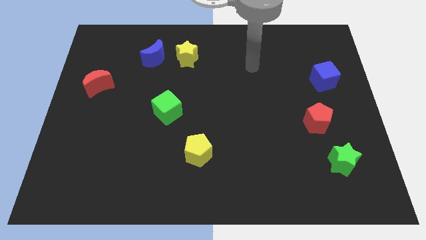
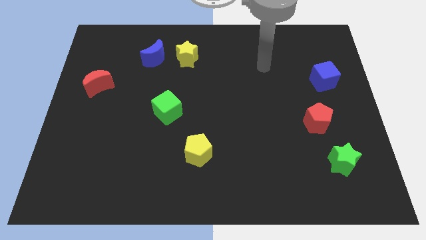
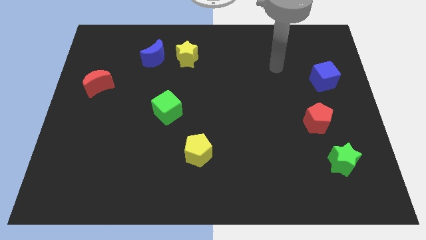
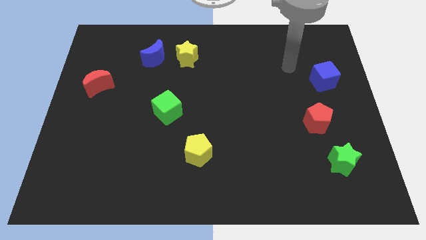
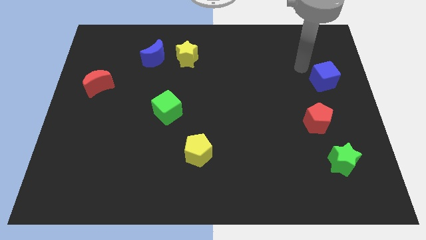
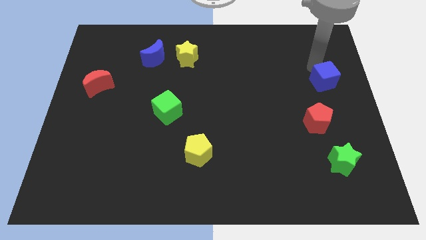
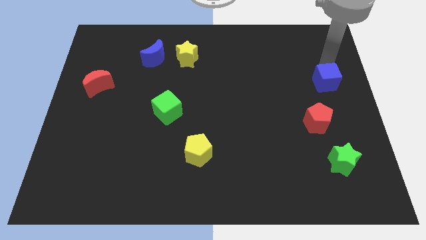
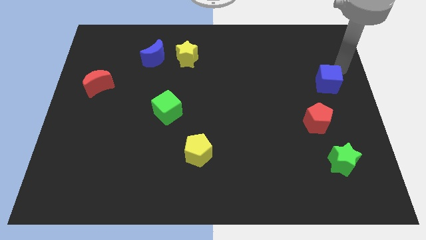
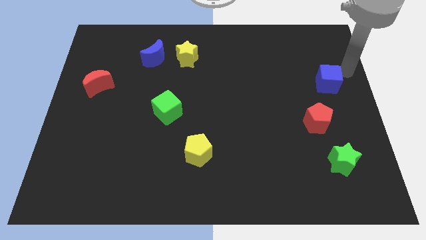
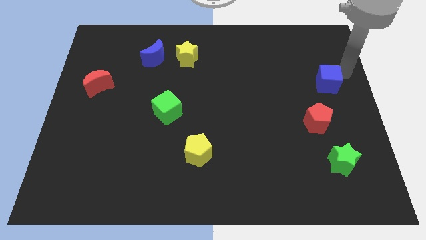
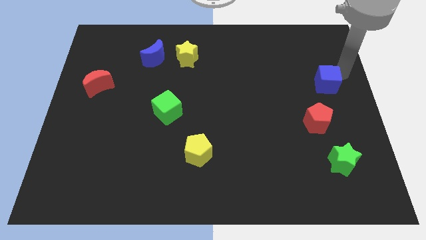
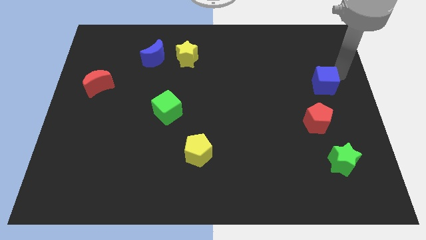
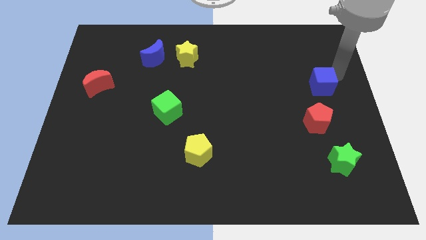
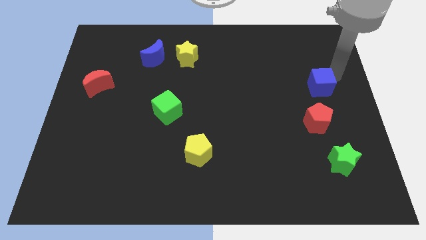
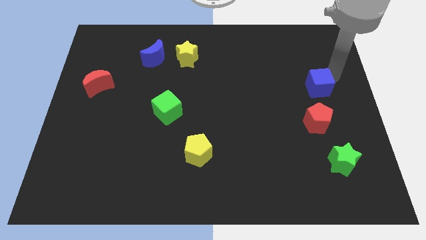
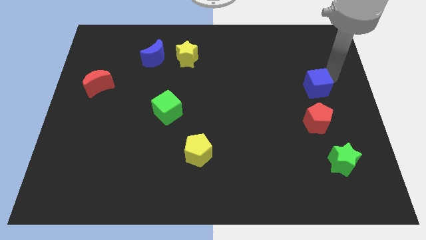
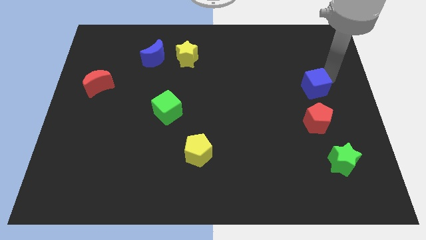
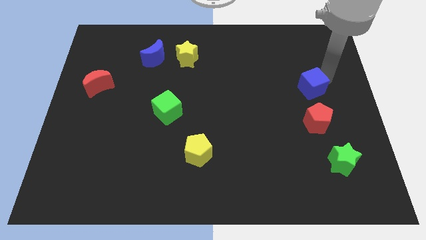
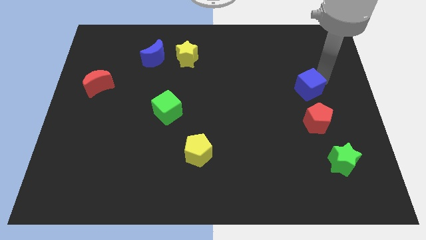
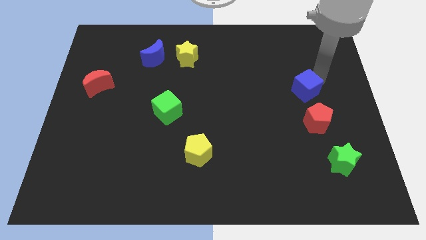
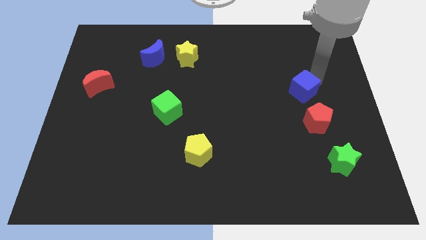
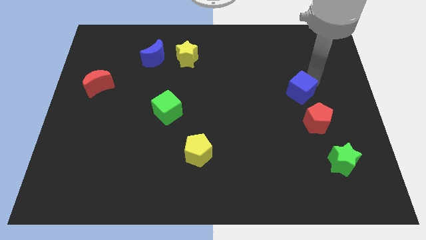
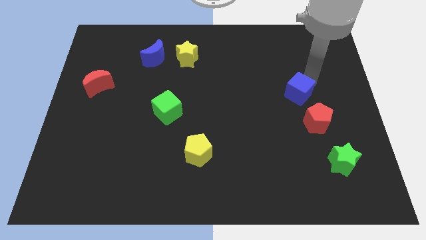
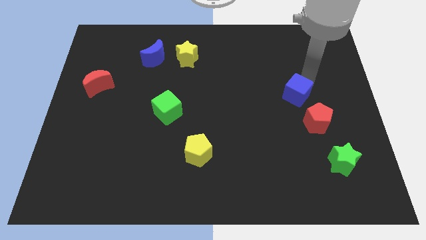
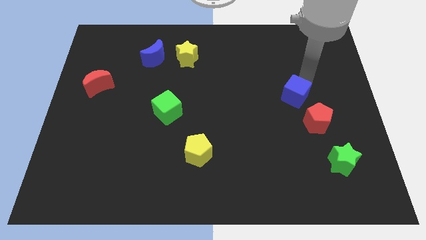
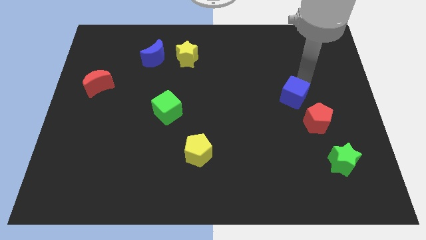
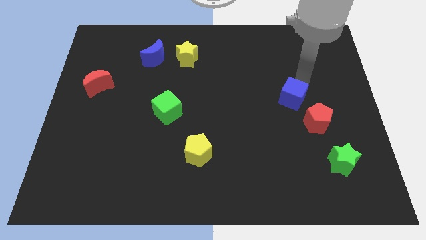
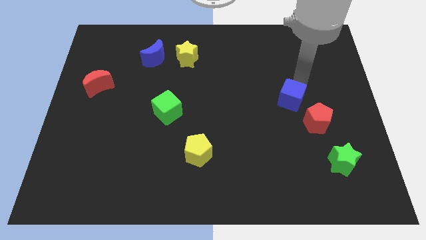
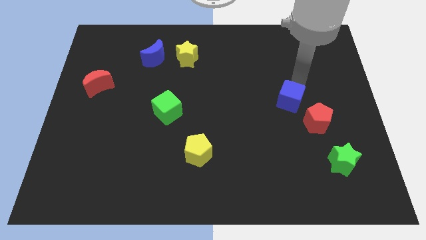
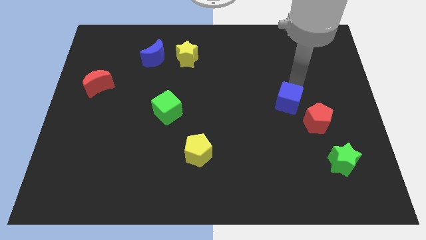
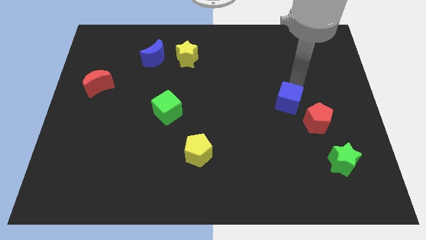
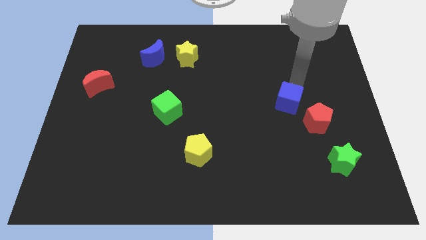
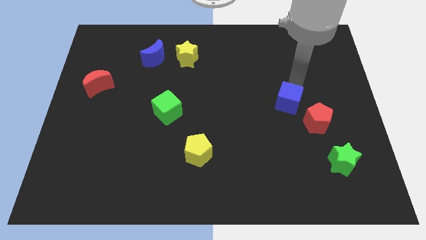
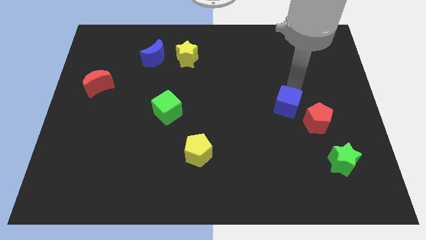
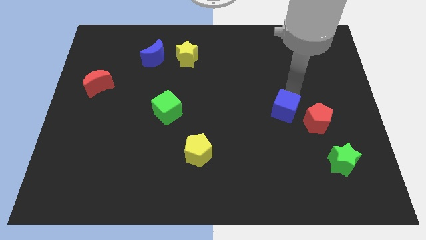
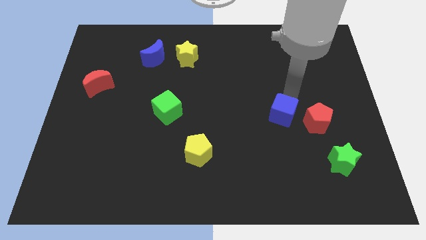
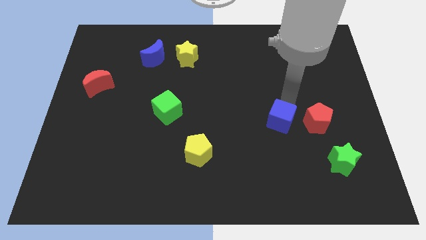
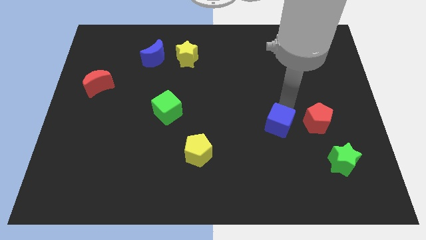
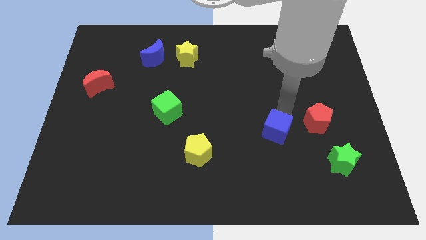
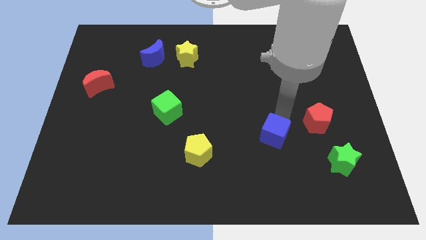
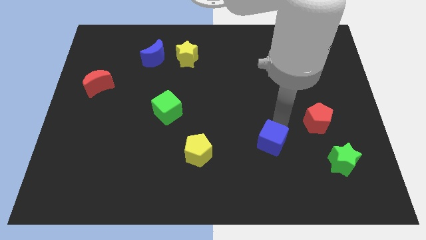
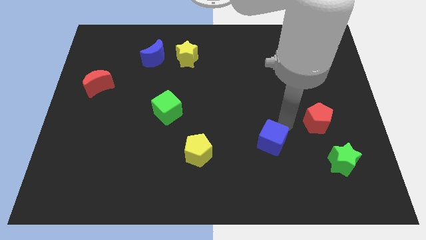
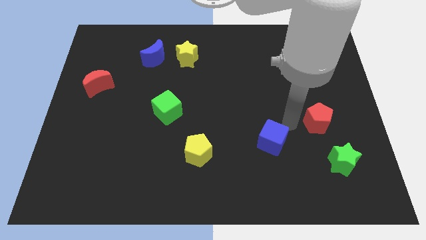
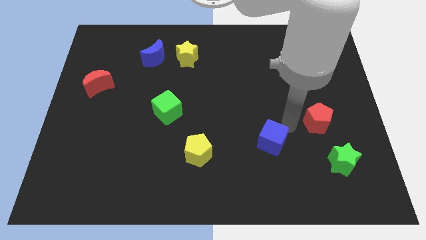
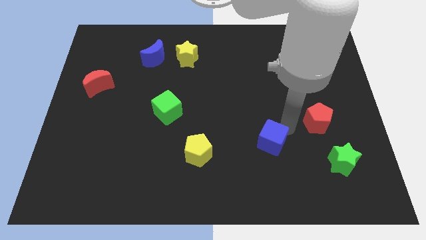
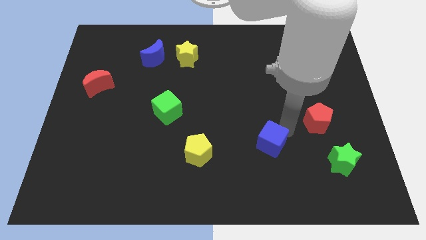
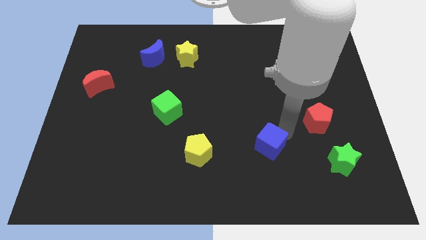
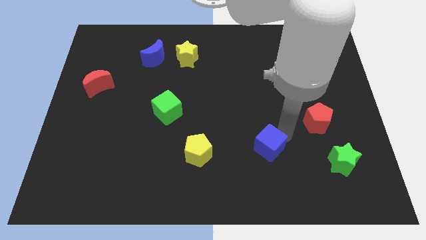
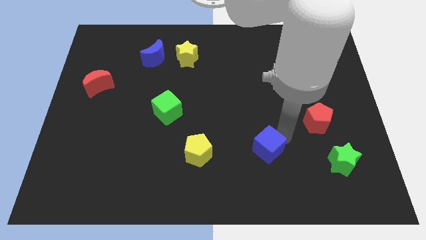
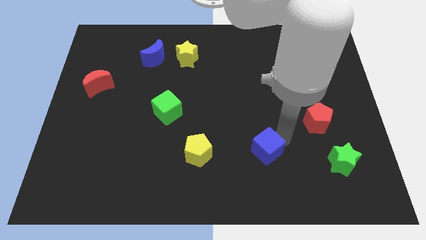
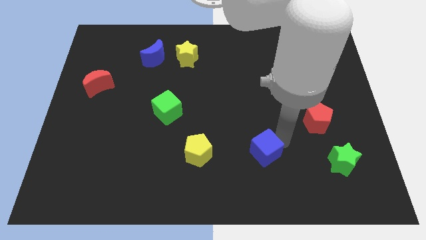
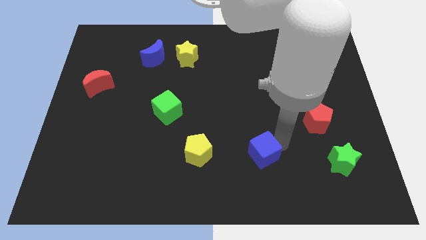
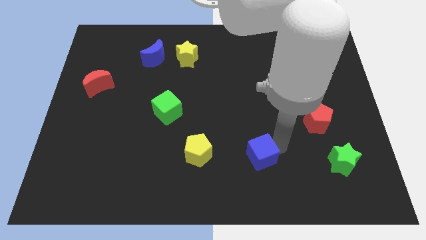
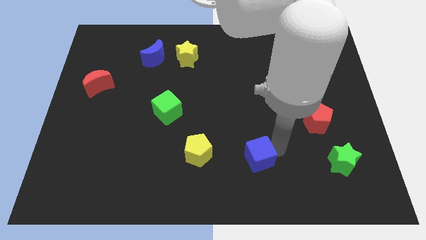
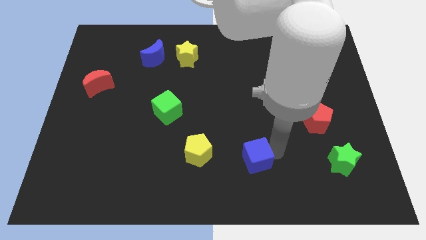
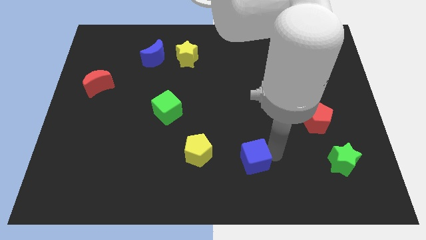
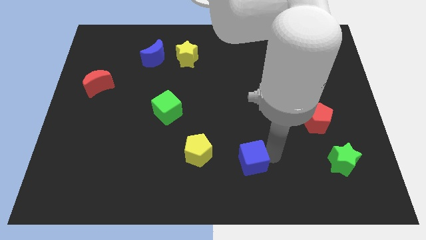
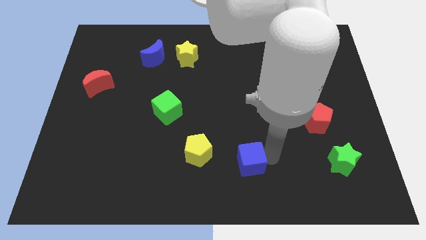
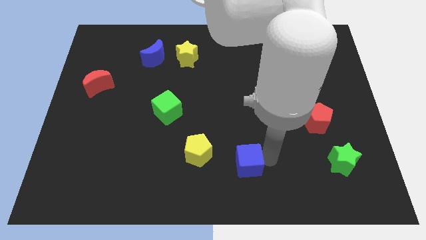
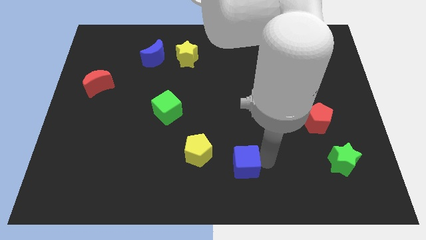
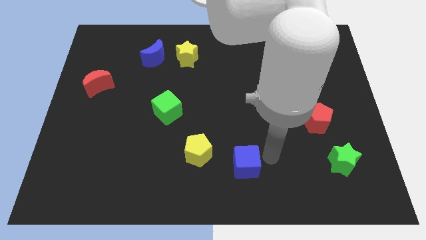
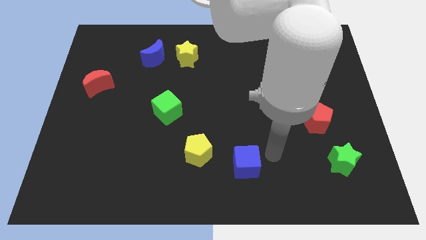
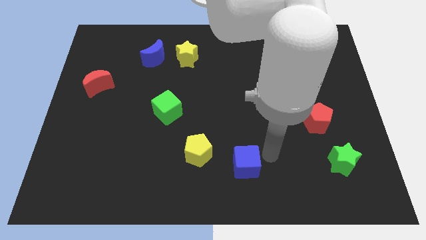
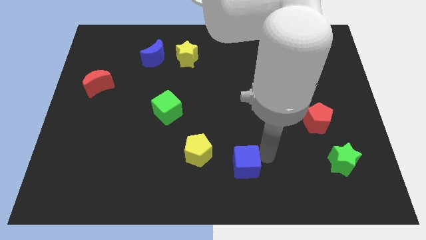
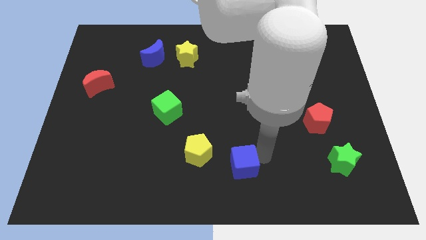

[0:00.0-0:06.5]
slide the blue cube to the bottom right side of the yellow pentagon

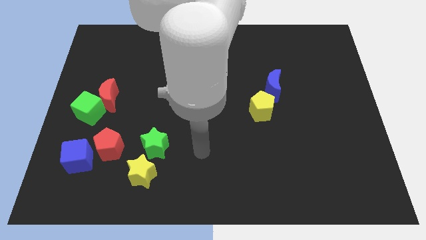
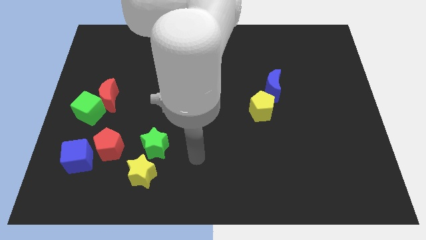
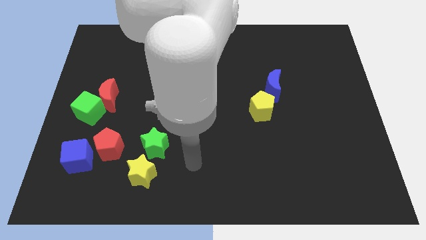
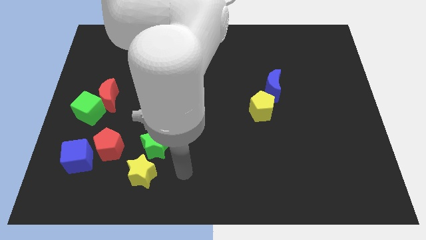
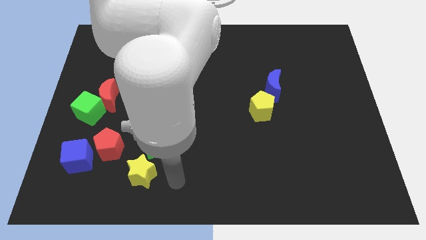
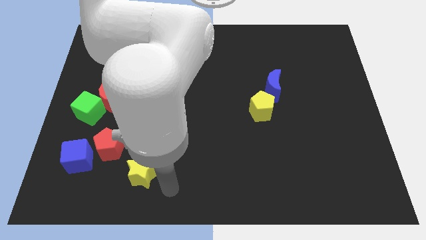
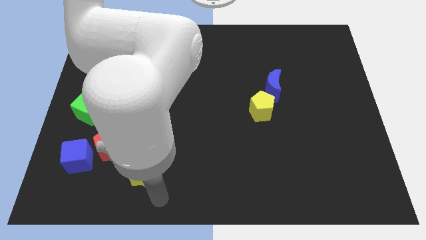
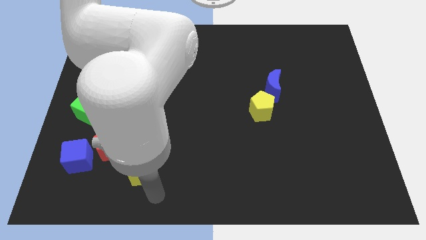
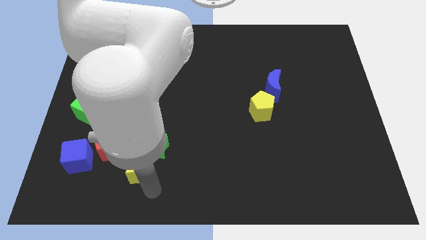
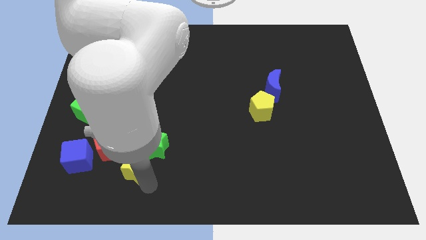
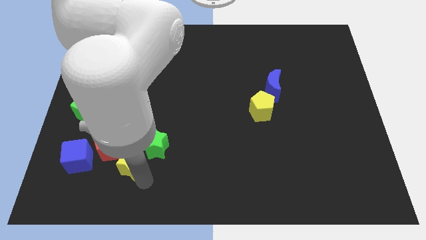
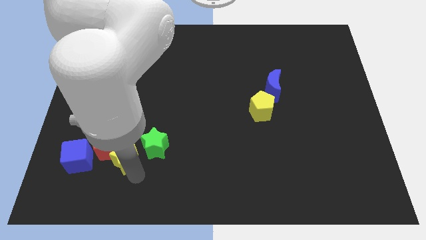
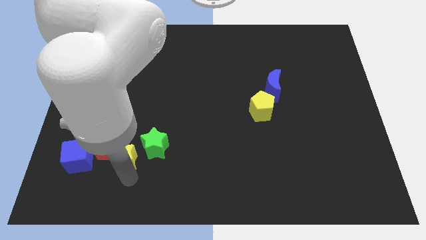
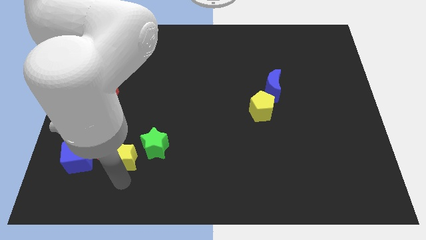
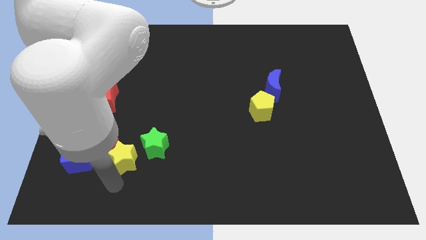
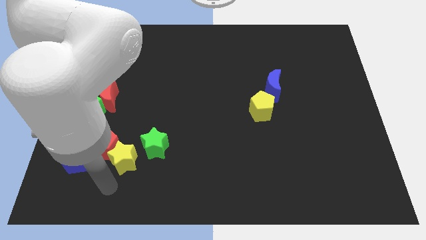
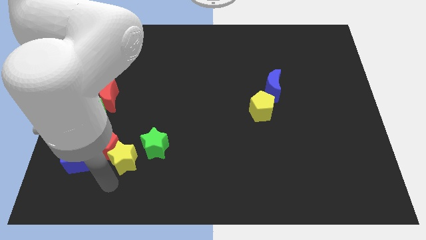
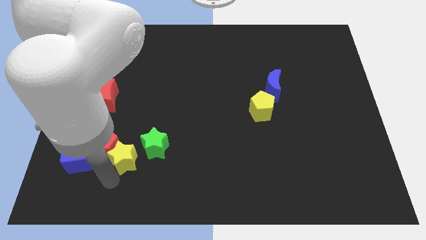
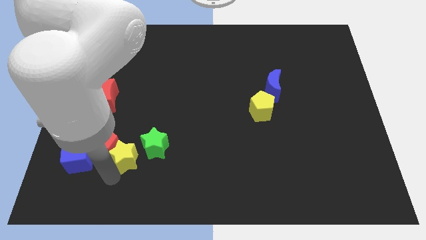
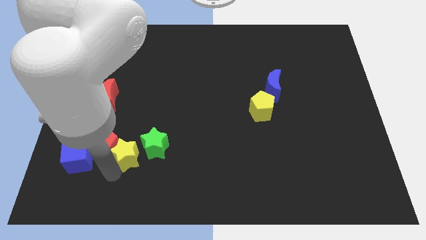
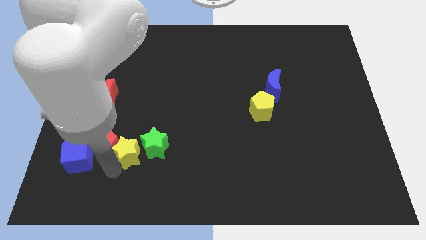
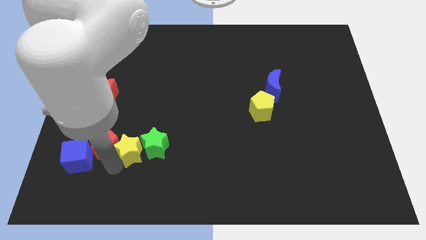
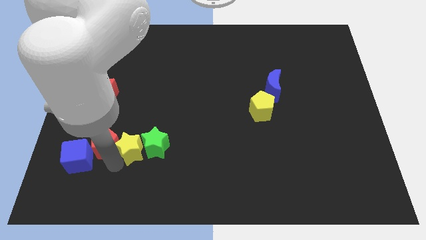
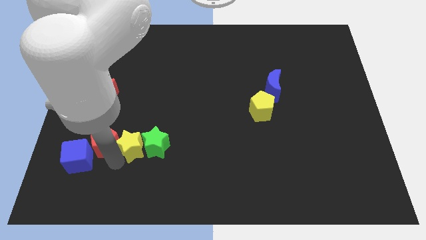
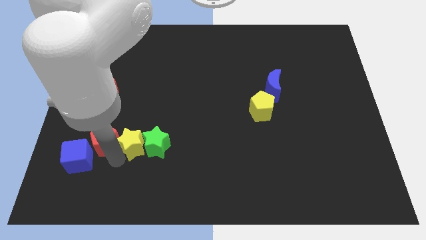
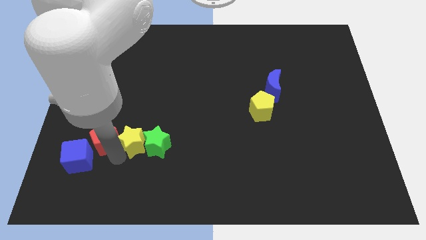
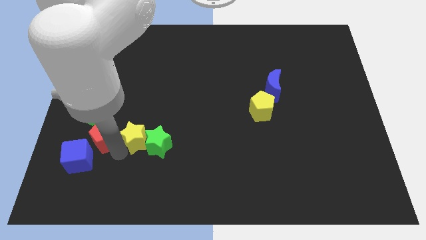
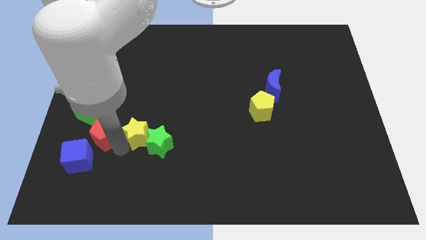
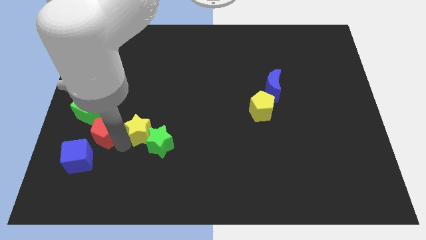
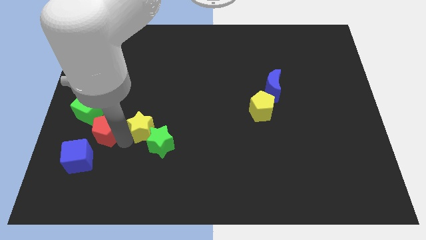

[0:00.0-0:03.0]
put the yellow star to the top of the green star
